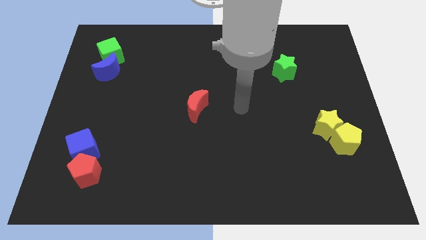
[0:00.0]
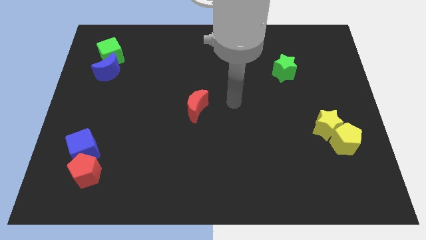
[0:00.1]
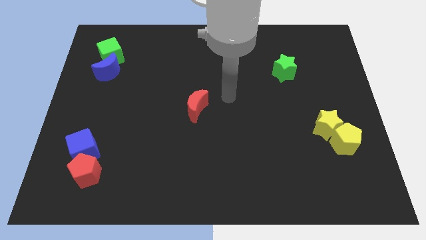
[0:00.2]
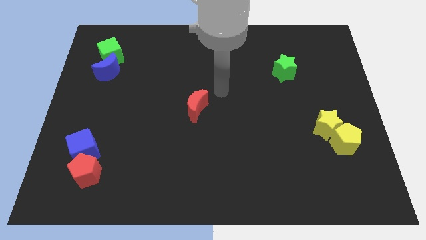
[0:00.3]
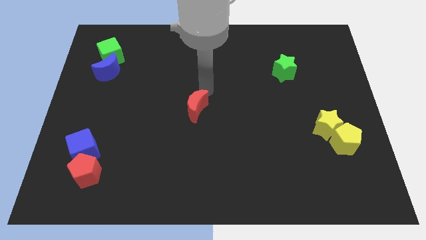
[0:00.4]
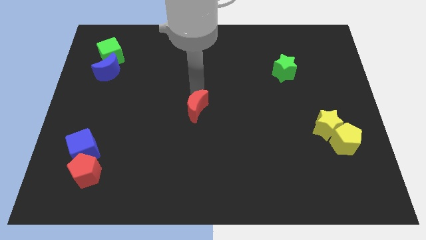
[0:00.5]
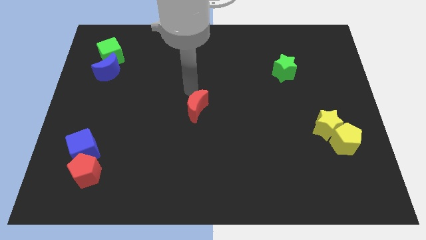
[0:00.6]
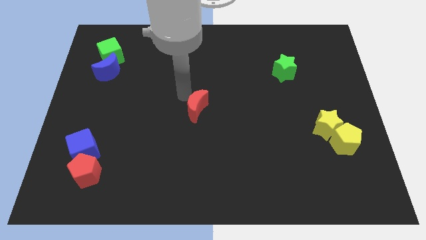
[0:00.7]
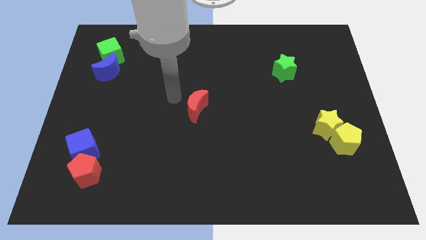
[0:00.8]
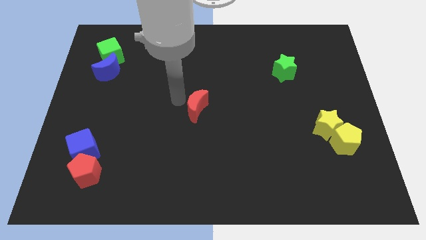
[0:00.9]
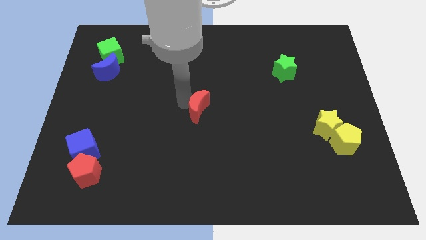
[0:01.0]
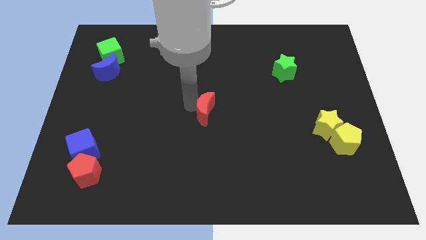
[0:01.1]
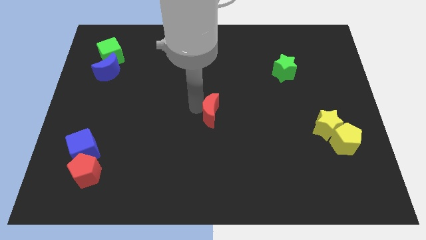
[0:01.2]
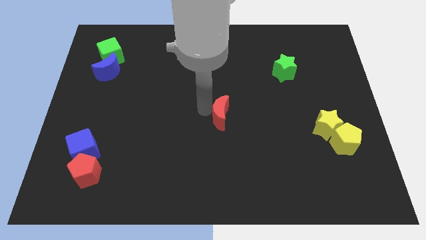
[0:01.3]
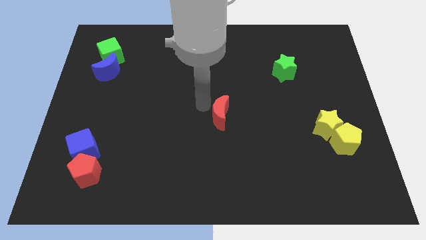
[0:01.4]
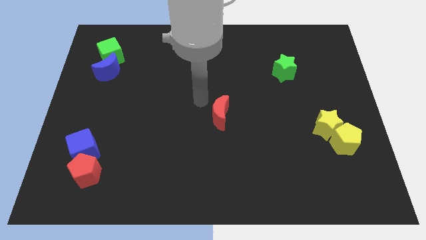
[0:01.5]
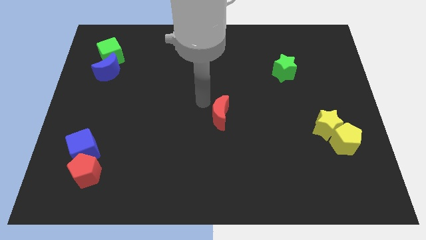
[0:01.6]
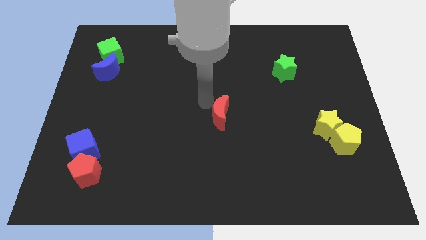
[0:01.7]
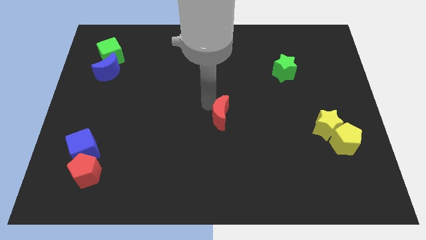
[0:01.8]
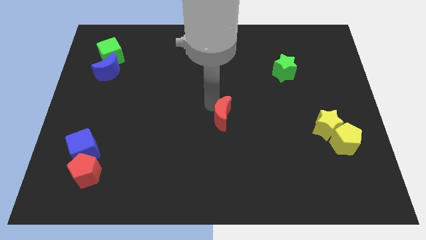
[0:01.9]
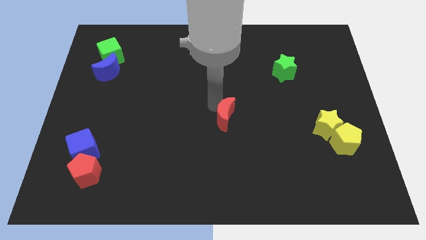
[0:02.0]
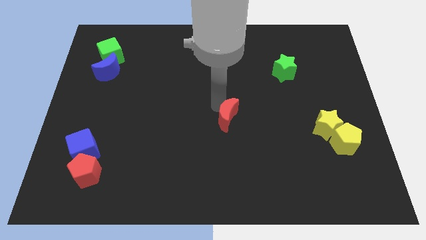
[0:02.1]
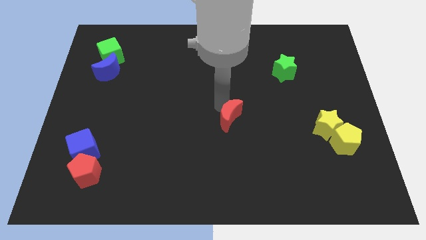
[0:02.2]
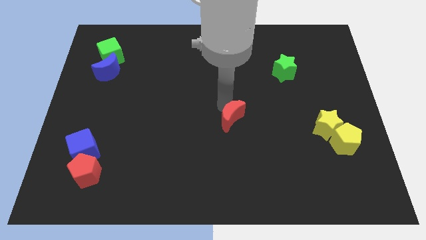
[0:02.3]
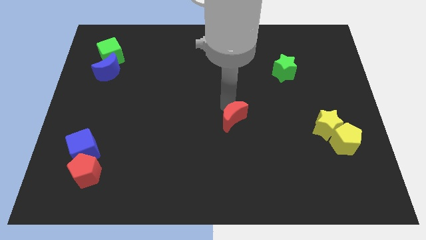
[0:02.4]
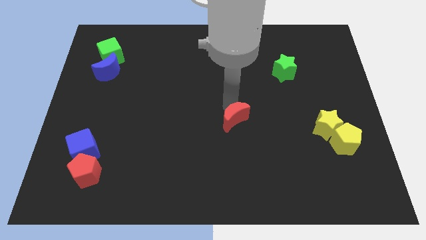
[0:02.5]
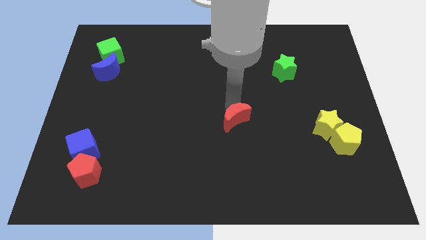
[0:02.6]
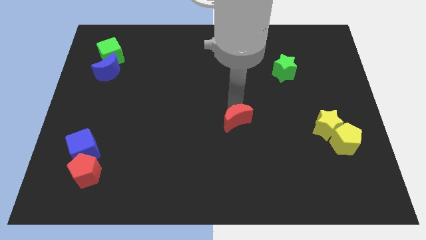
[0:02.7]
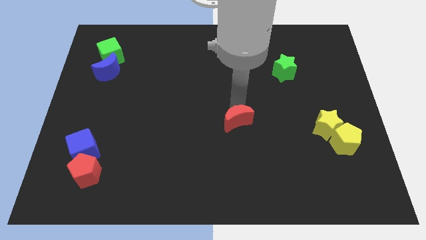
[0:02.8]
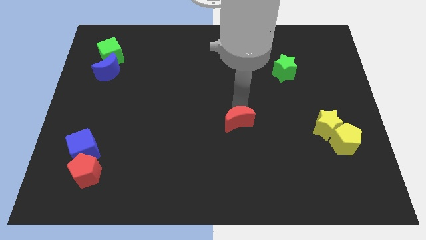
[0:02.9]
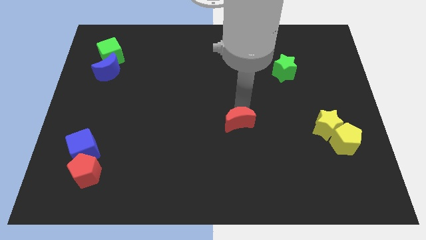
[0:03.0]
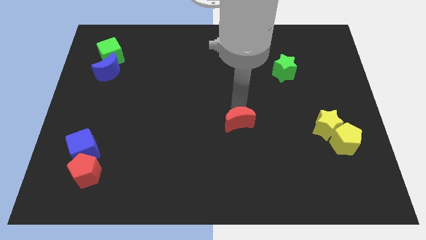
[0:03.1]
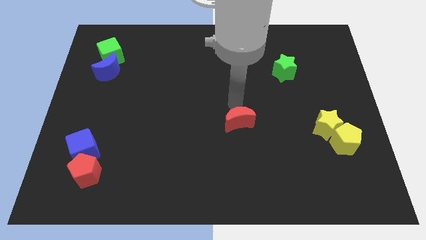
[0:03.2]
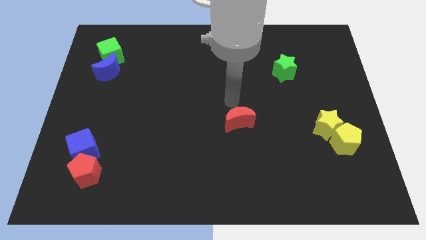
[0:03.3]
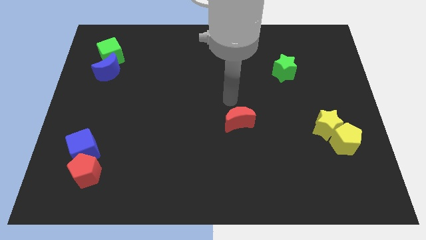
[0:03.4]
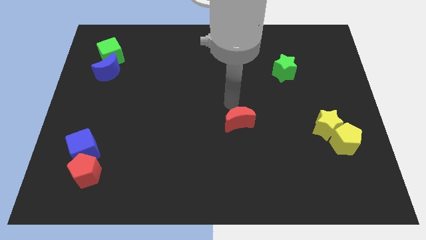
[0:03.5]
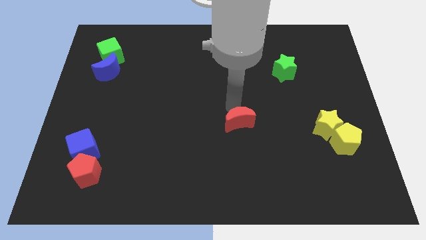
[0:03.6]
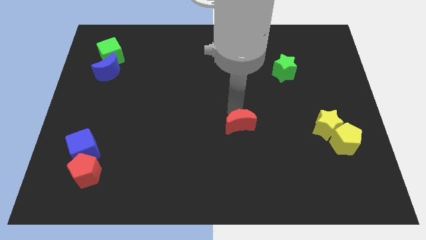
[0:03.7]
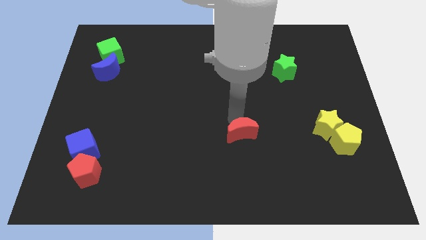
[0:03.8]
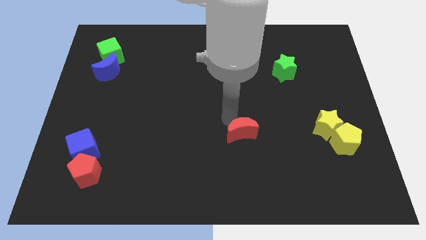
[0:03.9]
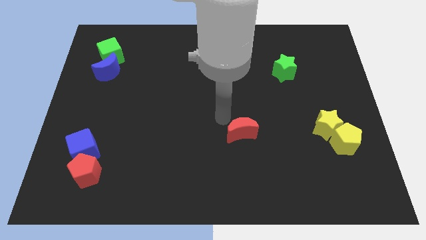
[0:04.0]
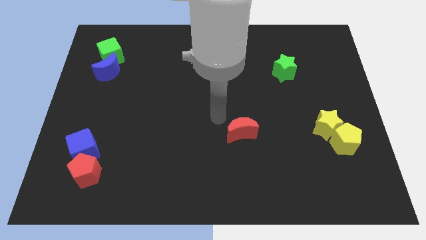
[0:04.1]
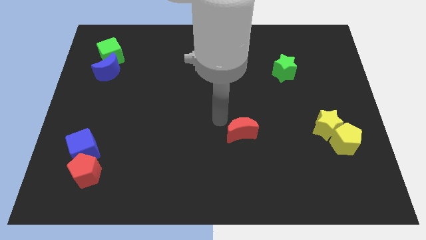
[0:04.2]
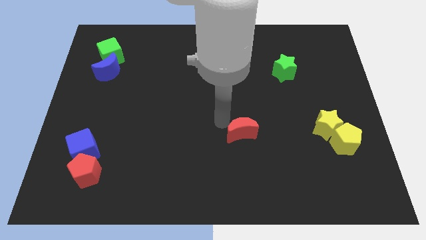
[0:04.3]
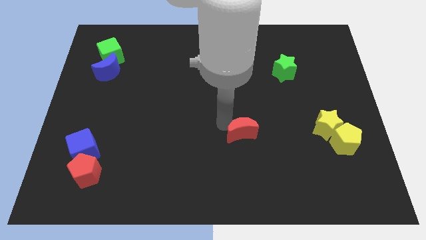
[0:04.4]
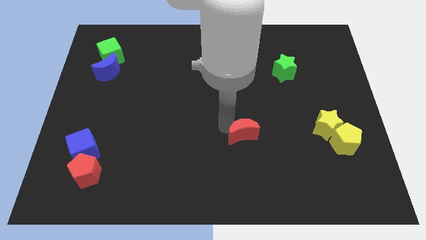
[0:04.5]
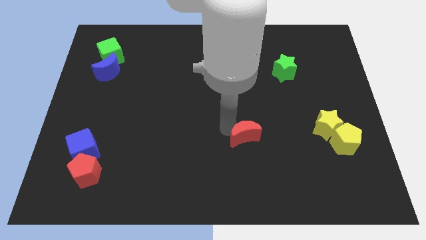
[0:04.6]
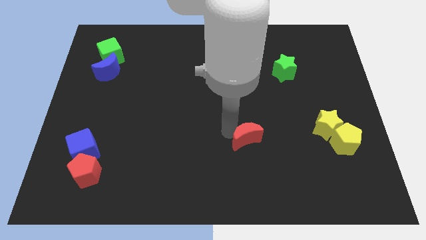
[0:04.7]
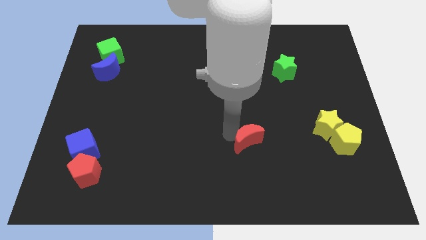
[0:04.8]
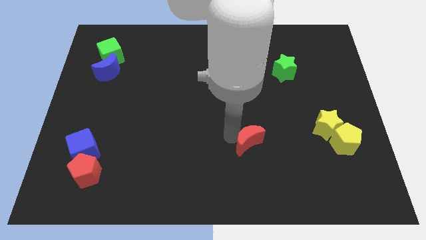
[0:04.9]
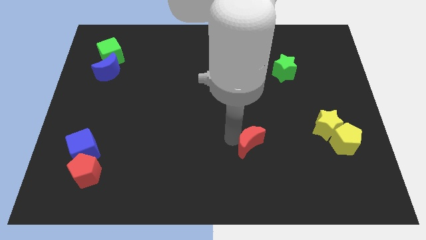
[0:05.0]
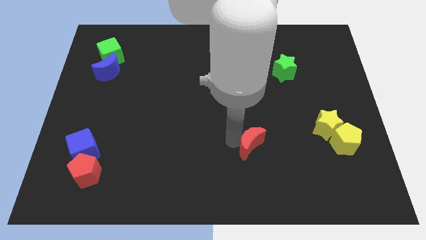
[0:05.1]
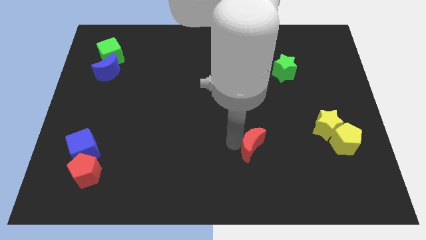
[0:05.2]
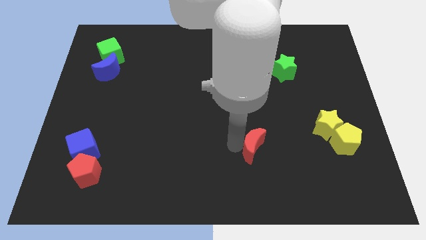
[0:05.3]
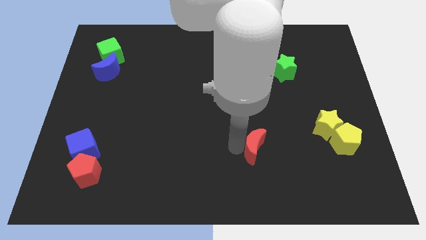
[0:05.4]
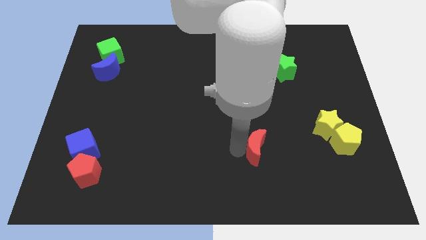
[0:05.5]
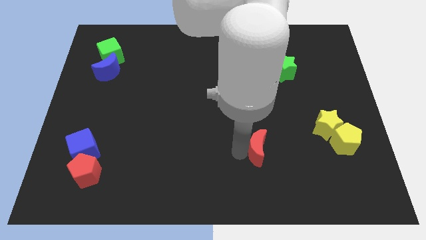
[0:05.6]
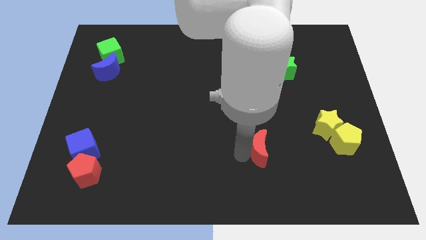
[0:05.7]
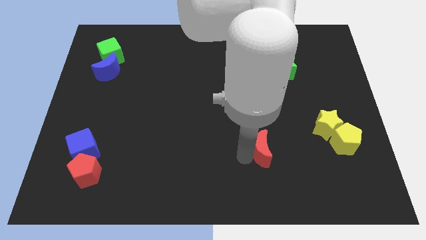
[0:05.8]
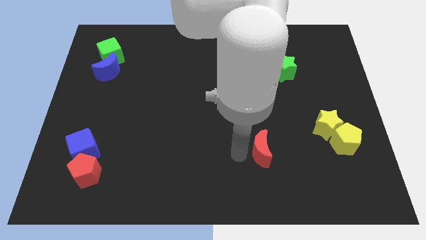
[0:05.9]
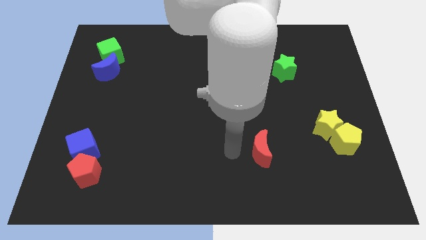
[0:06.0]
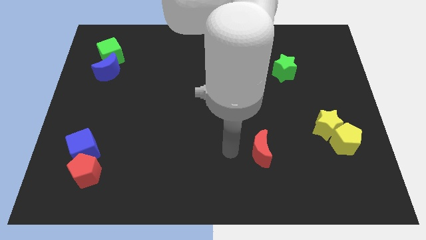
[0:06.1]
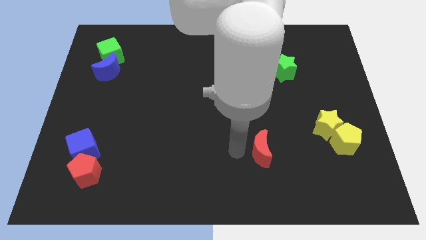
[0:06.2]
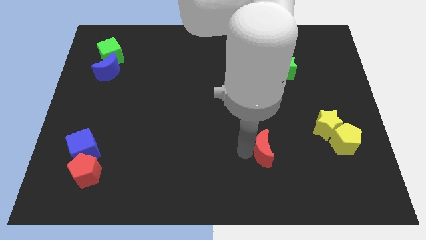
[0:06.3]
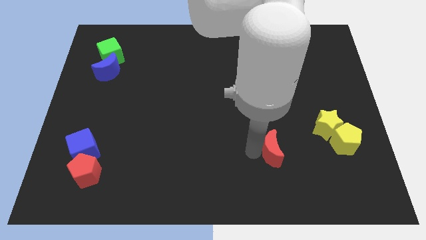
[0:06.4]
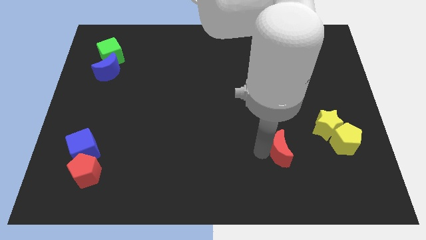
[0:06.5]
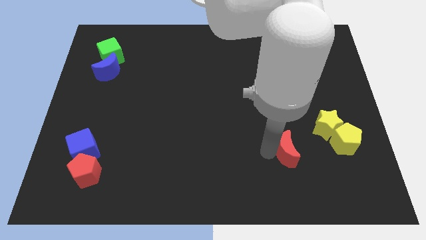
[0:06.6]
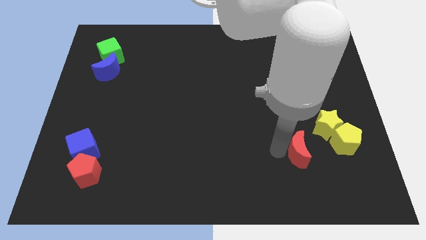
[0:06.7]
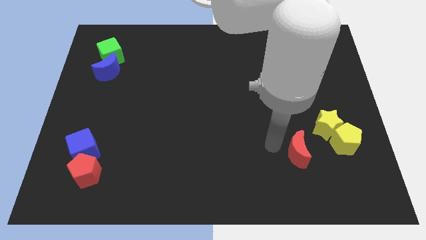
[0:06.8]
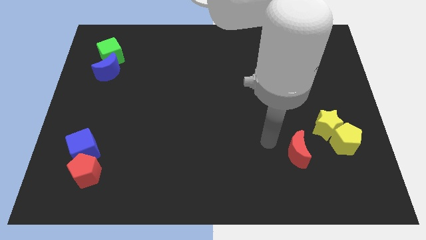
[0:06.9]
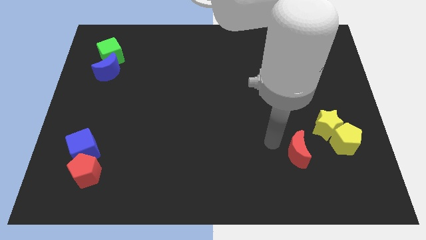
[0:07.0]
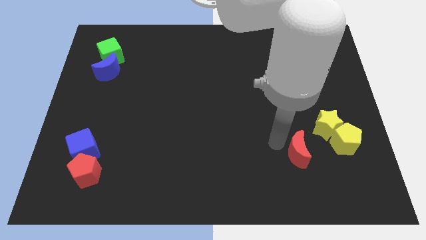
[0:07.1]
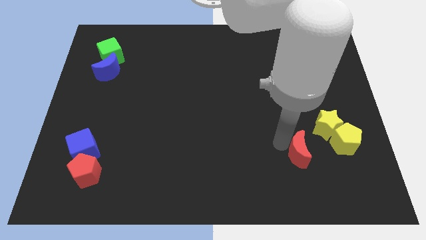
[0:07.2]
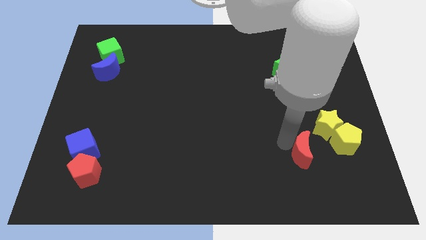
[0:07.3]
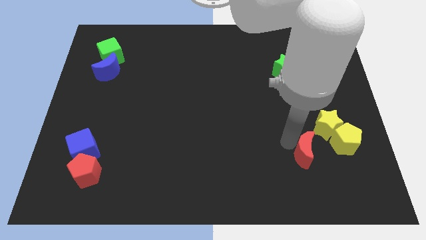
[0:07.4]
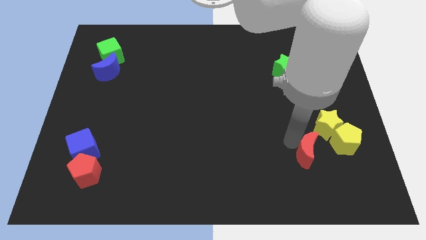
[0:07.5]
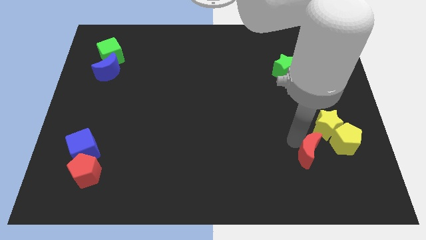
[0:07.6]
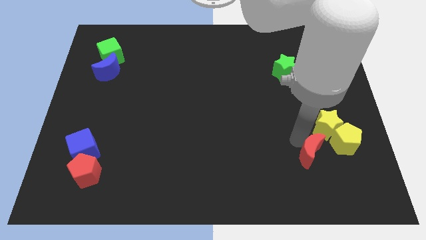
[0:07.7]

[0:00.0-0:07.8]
put the red moon to the bottom side of the yellow star
